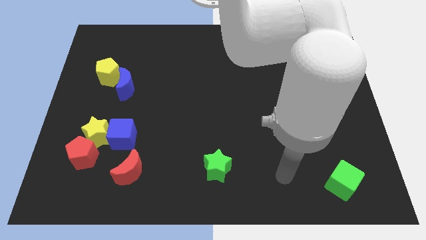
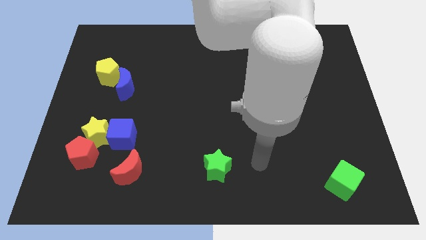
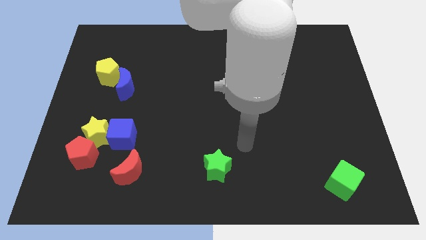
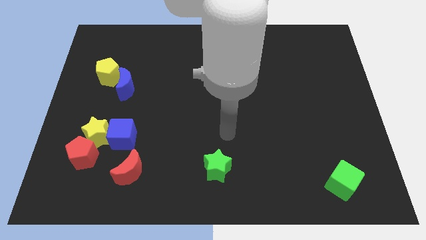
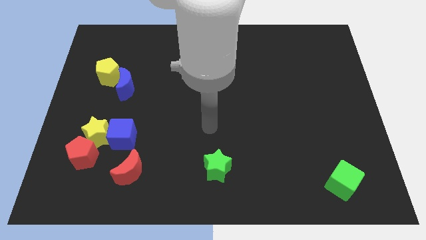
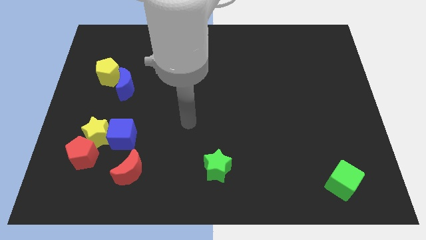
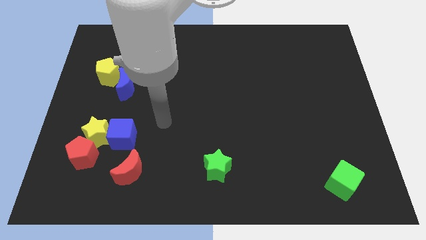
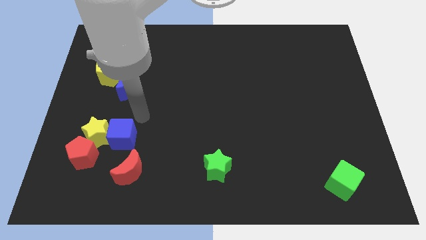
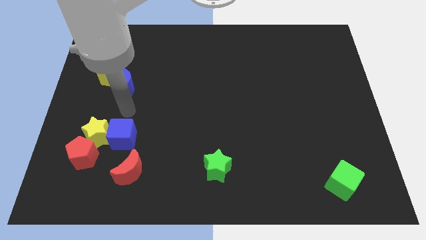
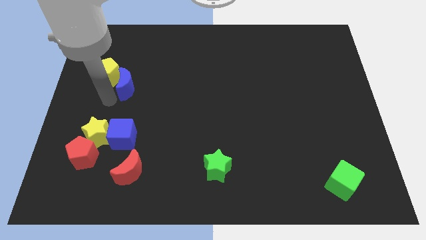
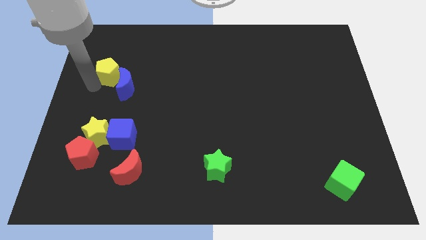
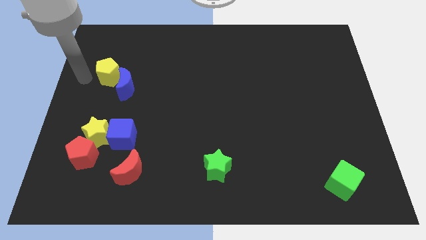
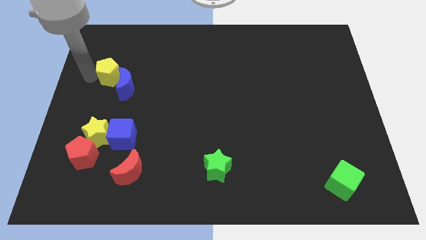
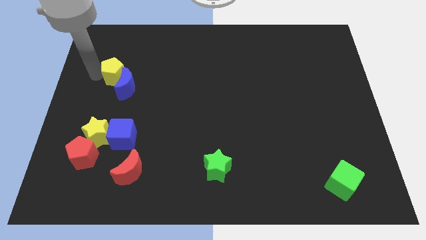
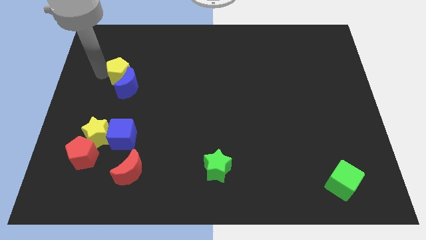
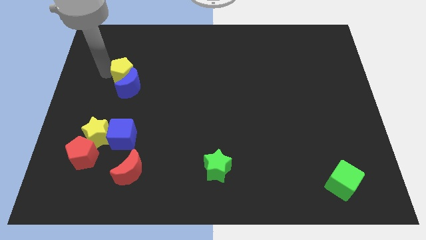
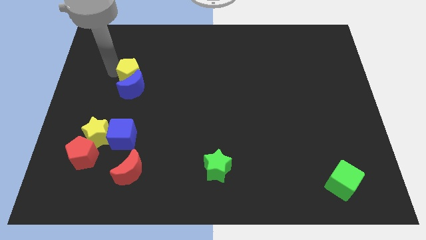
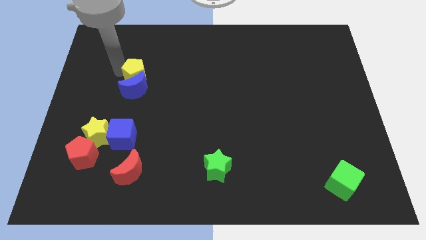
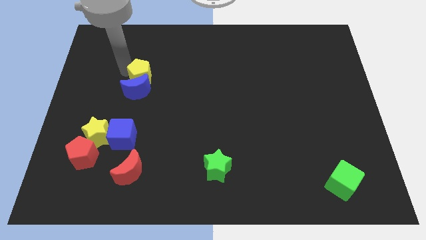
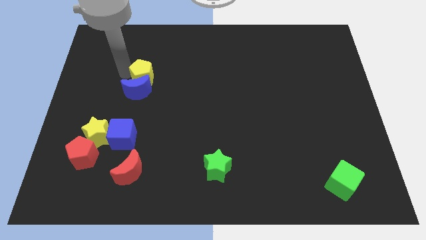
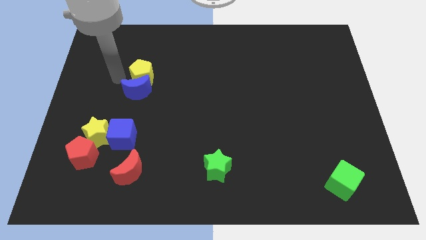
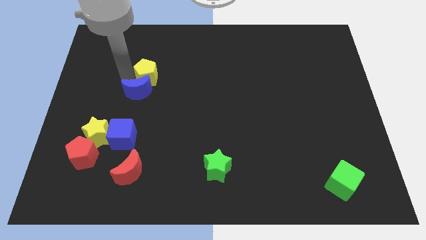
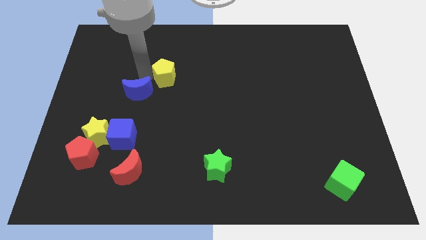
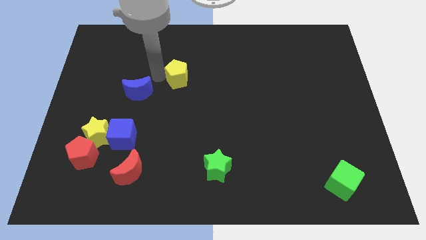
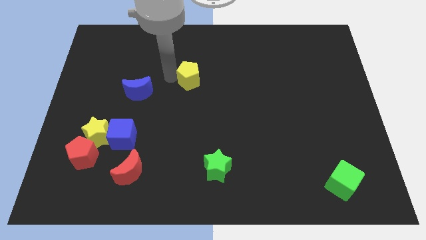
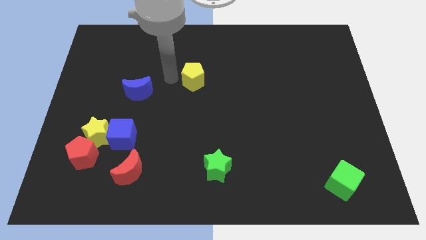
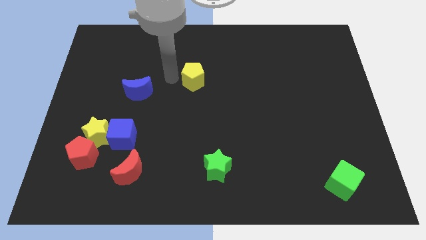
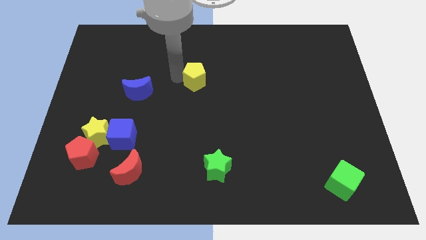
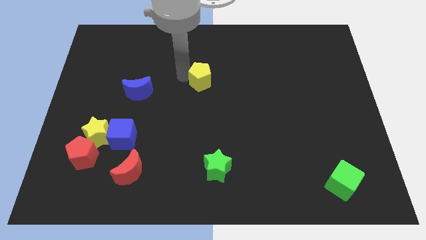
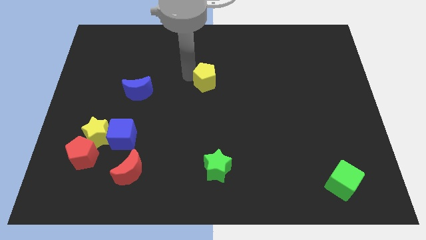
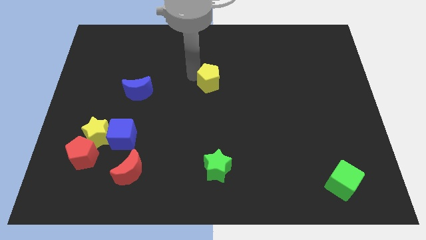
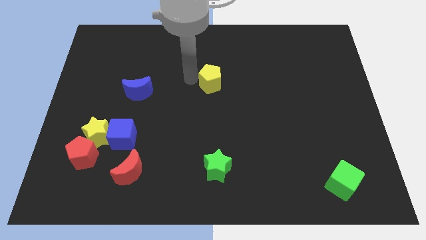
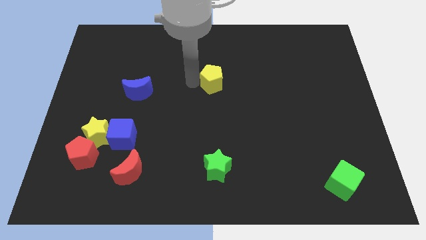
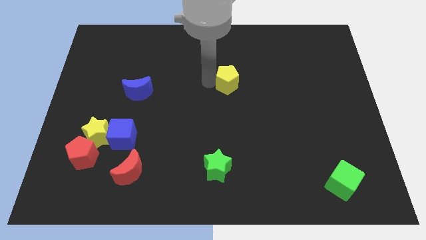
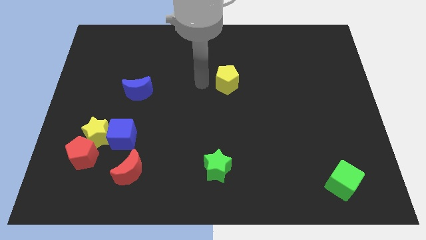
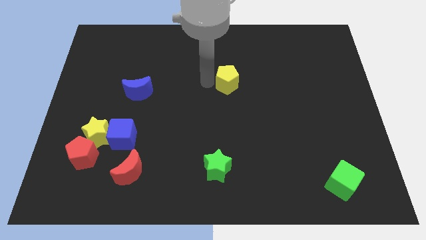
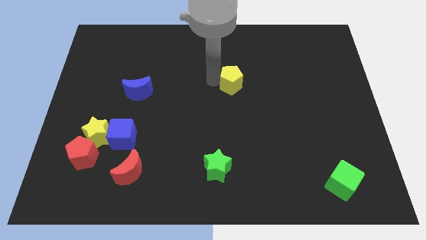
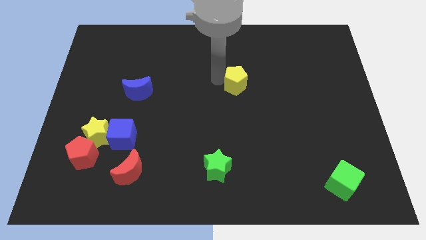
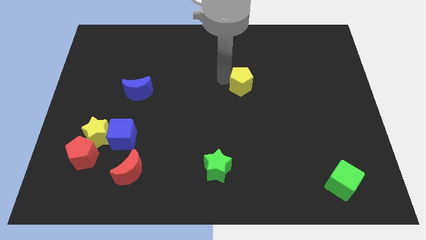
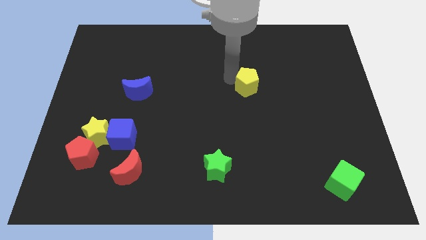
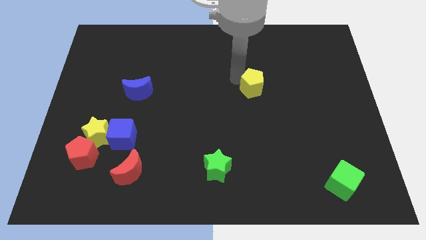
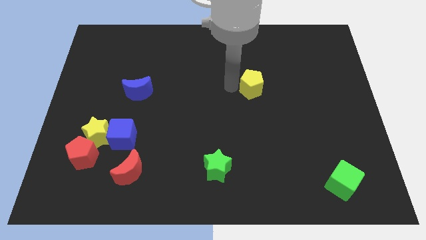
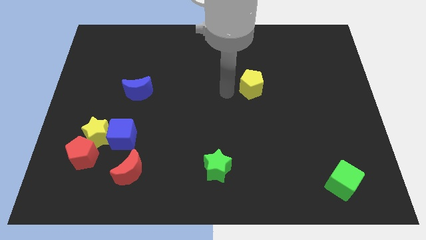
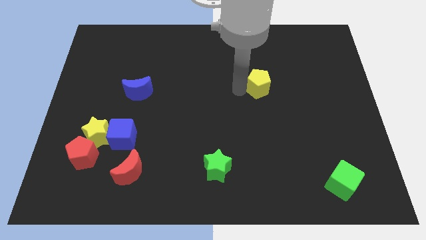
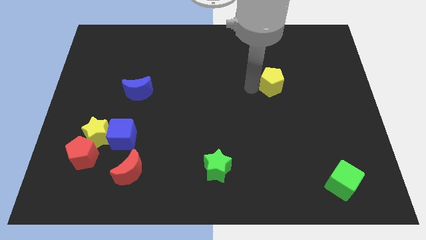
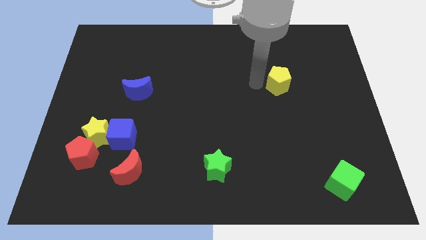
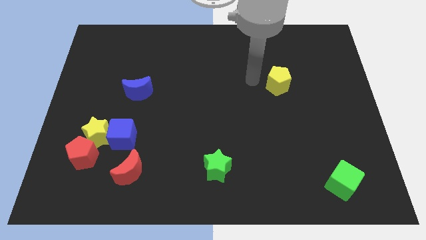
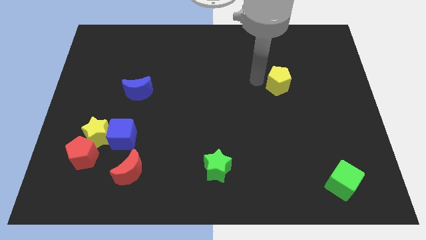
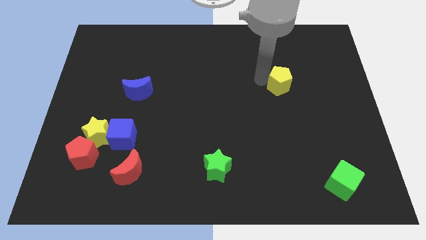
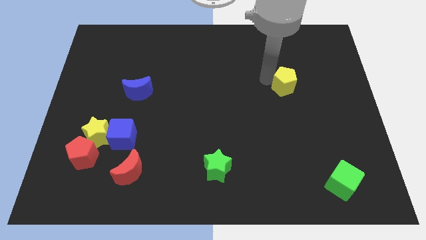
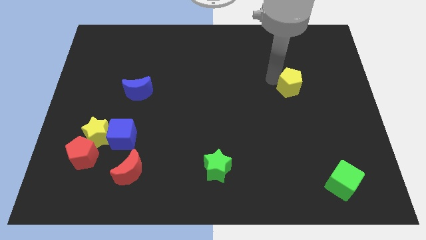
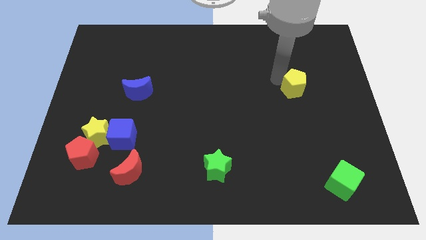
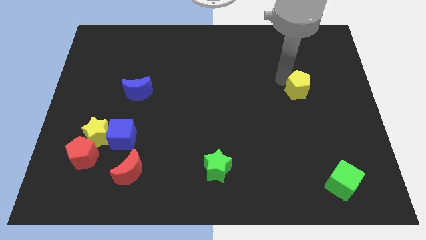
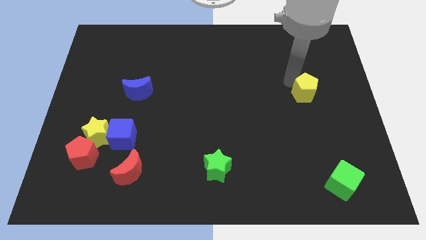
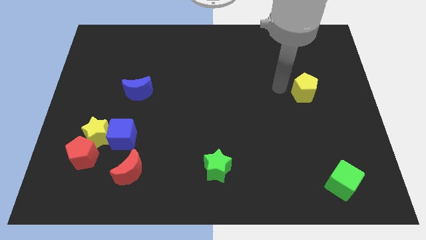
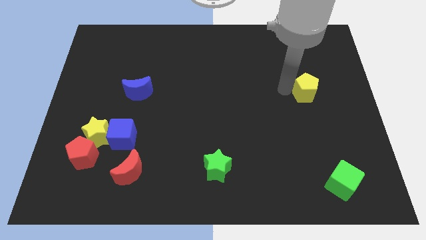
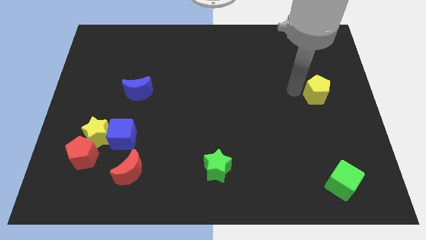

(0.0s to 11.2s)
put the yellow pentagon to the right side of the board
